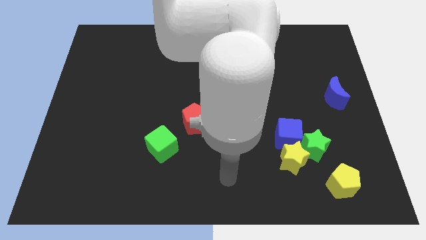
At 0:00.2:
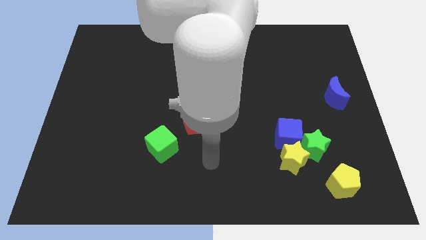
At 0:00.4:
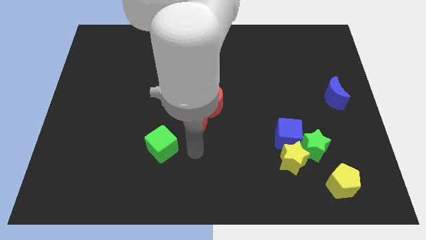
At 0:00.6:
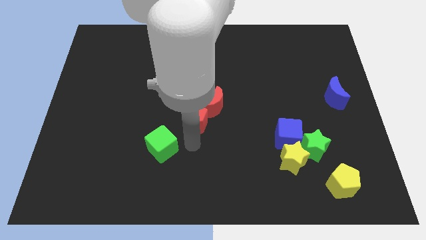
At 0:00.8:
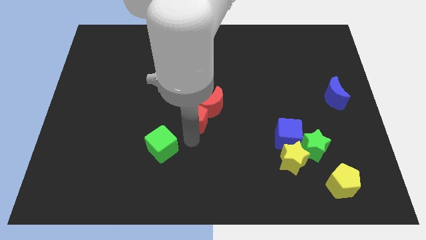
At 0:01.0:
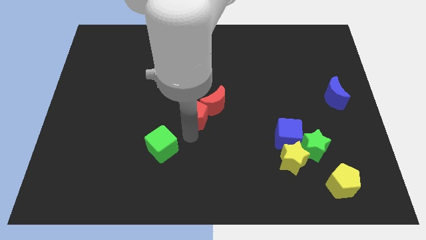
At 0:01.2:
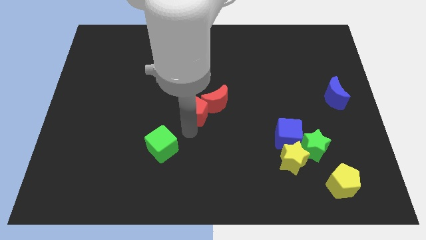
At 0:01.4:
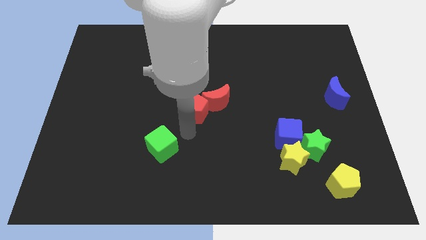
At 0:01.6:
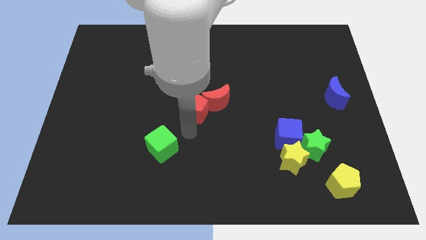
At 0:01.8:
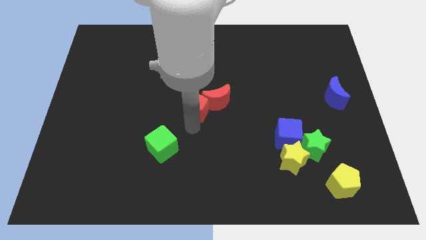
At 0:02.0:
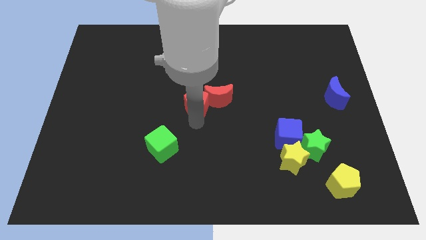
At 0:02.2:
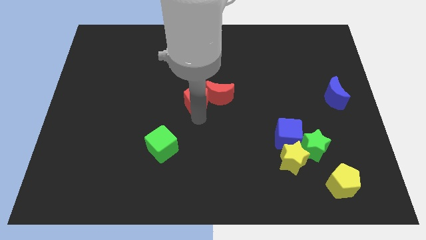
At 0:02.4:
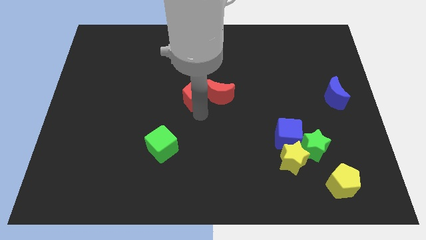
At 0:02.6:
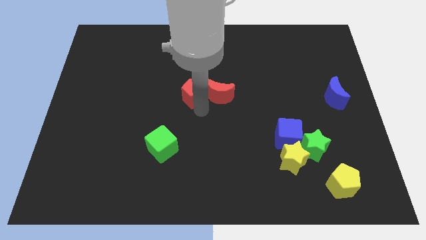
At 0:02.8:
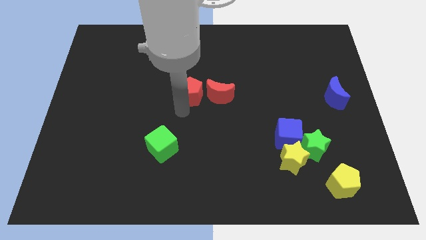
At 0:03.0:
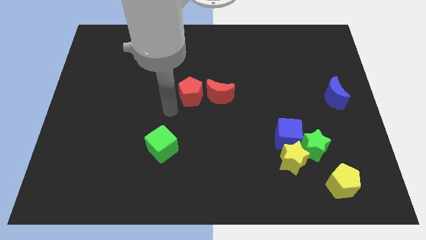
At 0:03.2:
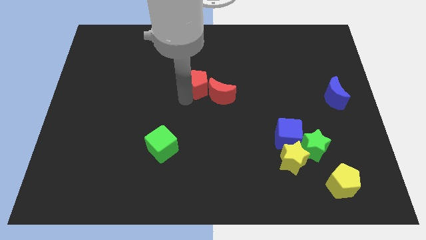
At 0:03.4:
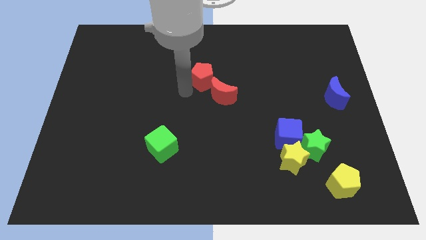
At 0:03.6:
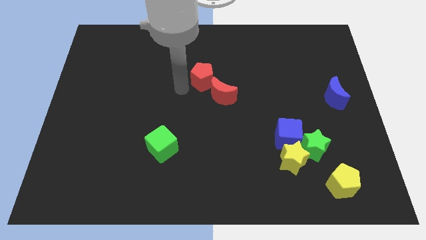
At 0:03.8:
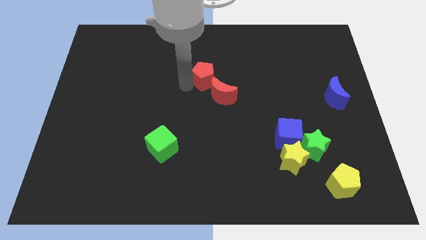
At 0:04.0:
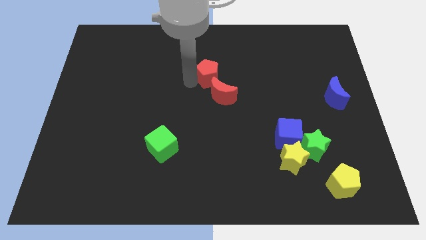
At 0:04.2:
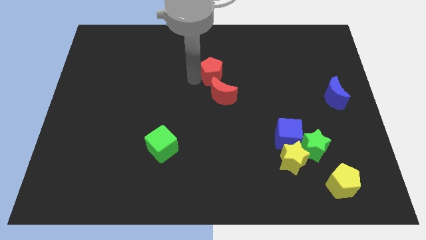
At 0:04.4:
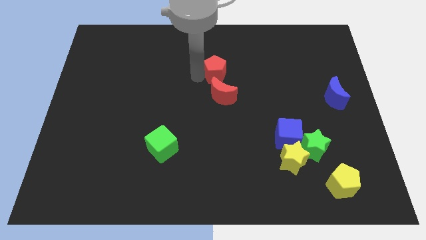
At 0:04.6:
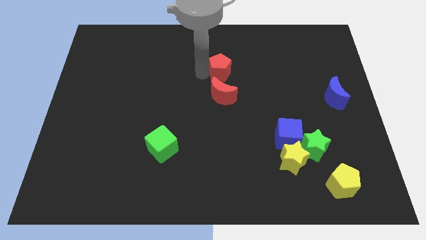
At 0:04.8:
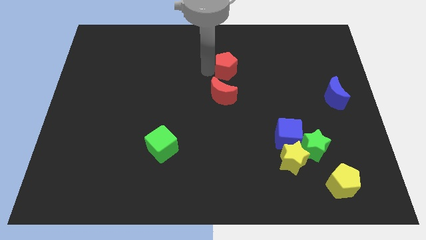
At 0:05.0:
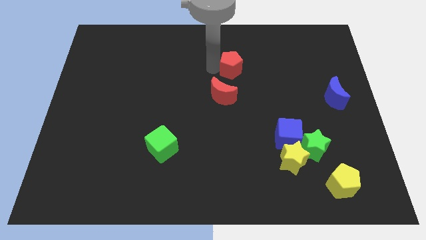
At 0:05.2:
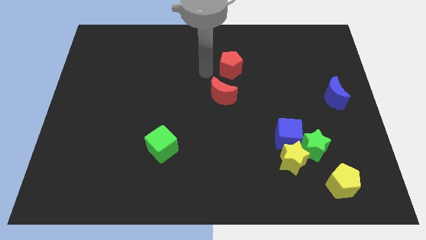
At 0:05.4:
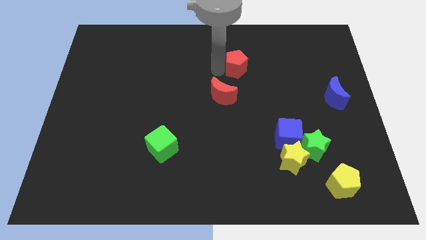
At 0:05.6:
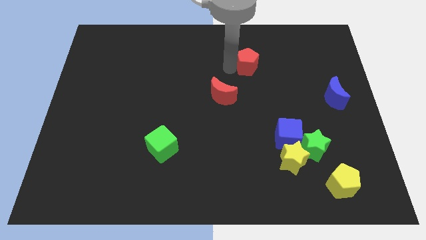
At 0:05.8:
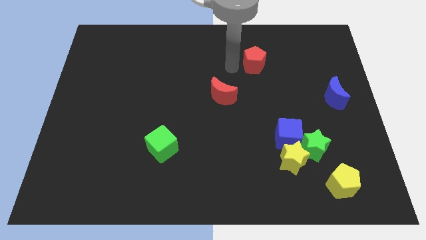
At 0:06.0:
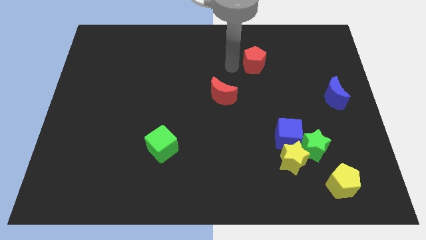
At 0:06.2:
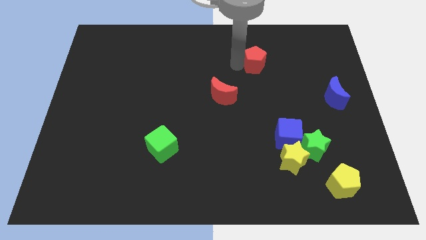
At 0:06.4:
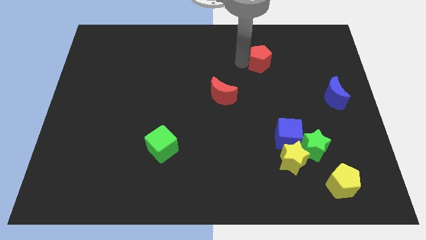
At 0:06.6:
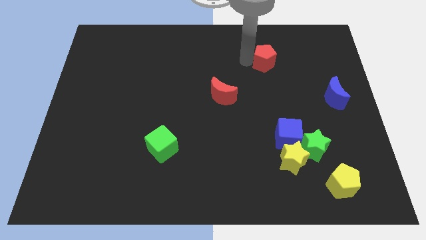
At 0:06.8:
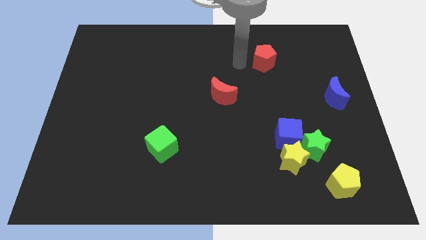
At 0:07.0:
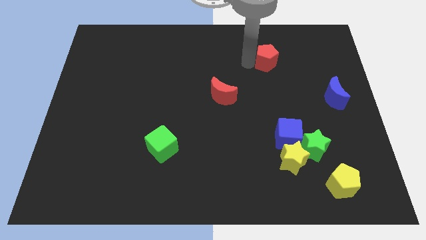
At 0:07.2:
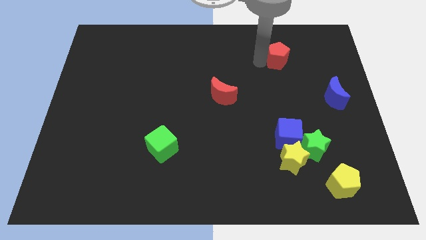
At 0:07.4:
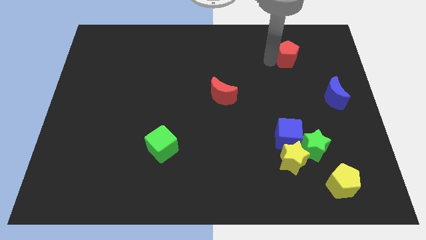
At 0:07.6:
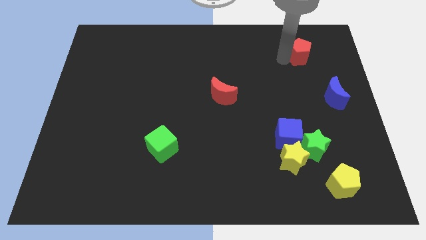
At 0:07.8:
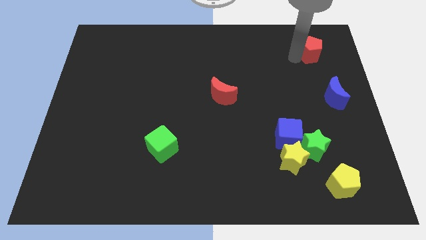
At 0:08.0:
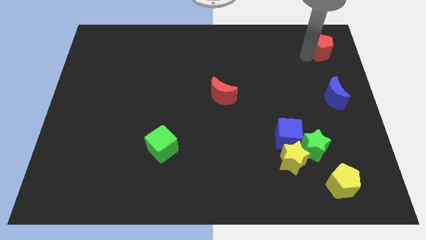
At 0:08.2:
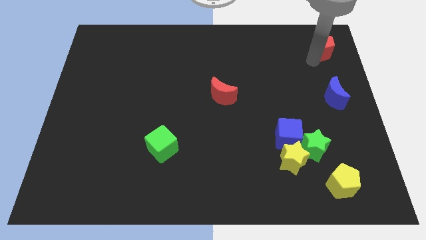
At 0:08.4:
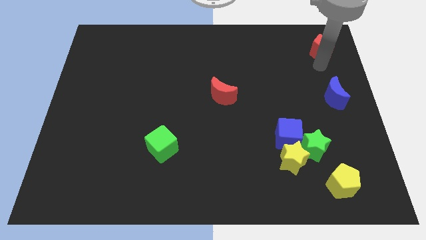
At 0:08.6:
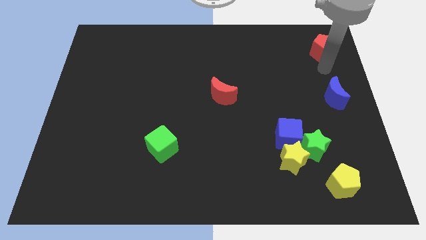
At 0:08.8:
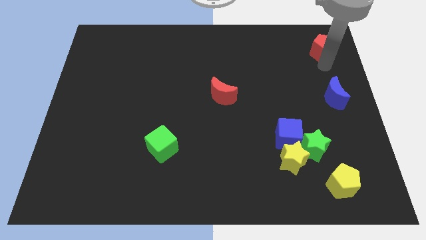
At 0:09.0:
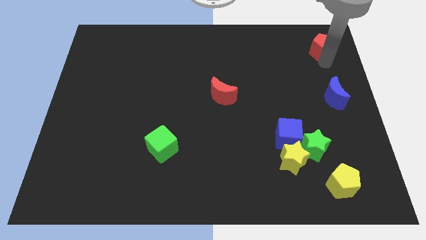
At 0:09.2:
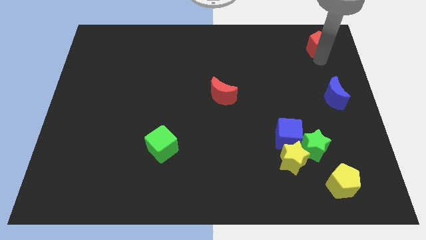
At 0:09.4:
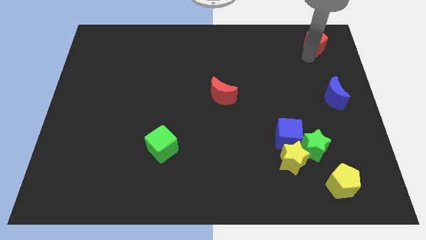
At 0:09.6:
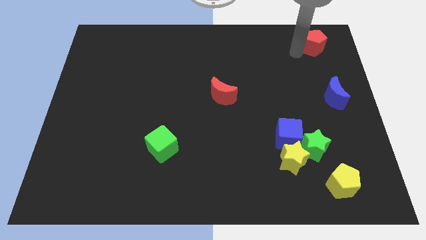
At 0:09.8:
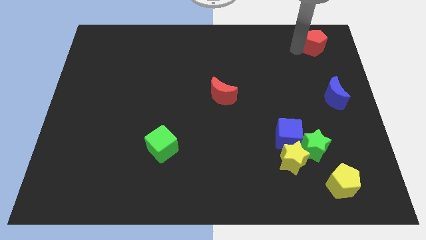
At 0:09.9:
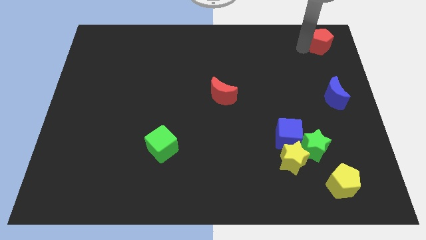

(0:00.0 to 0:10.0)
move the red pentagon to the top right of the board
